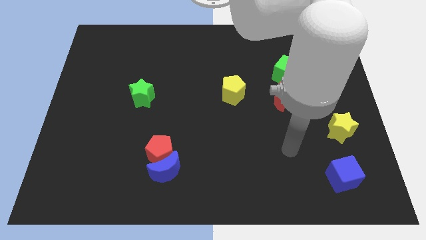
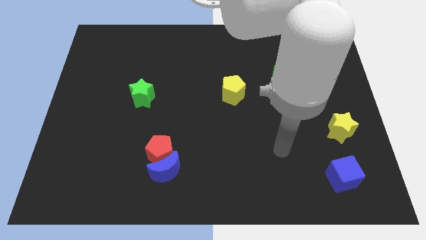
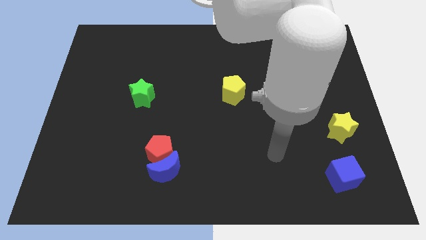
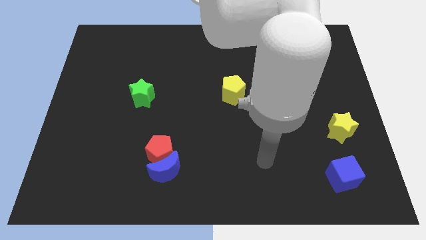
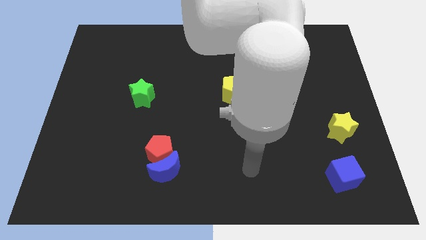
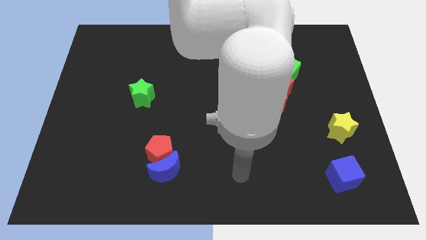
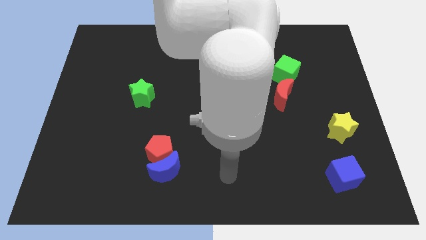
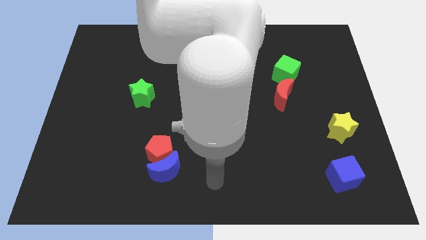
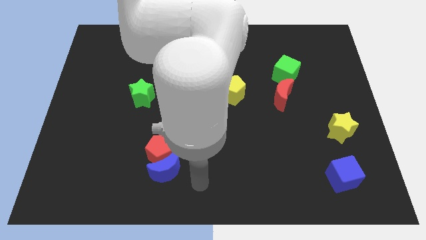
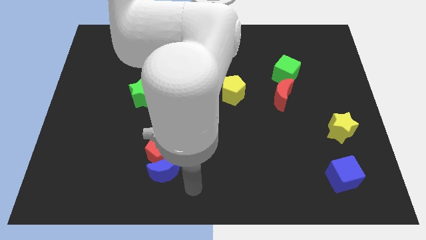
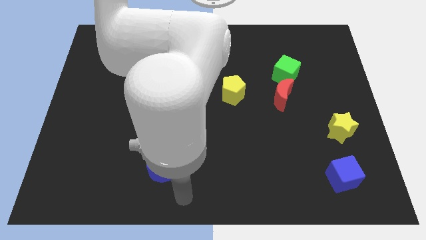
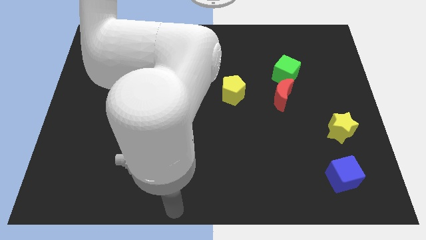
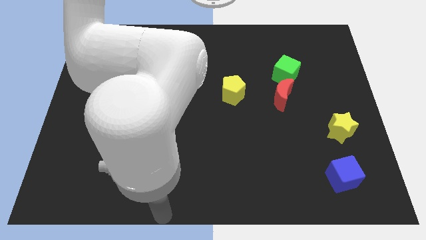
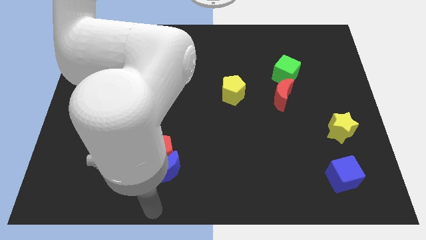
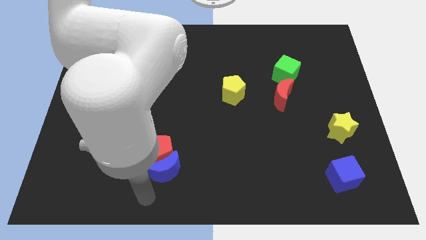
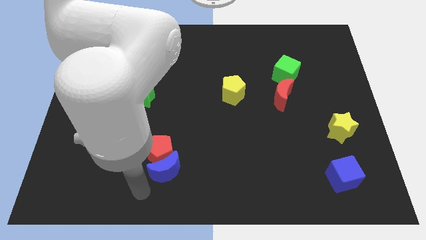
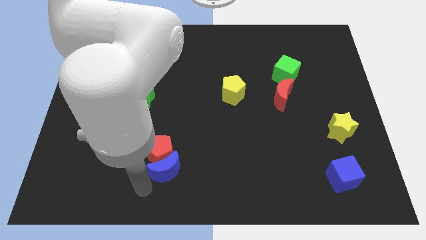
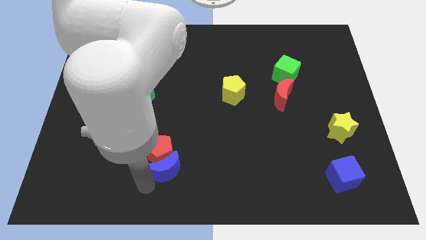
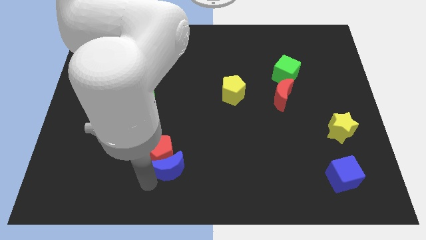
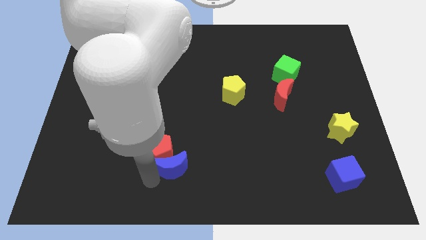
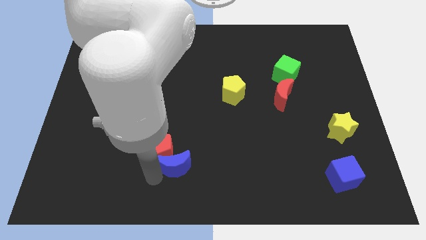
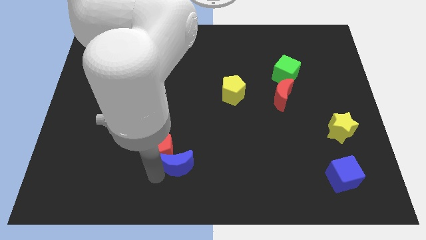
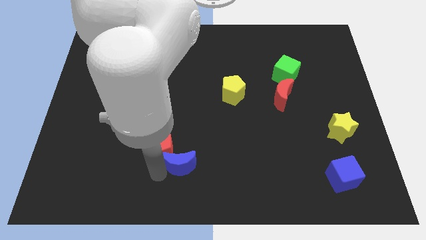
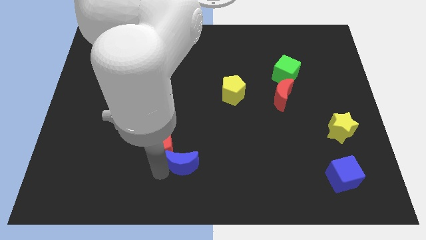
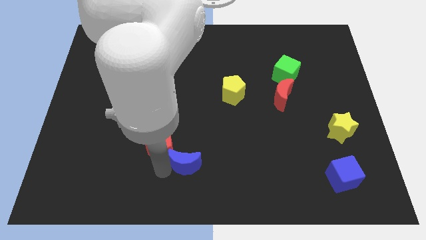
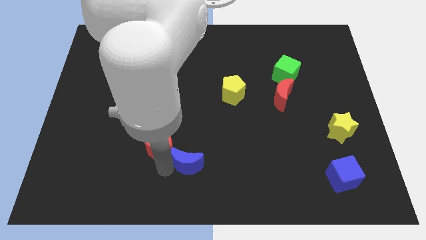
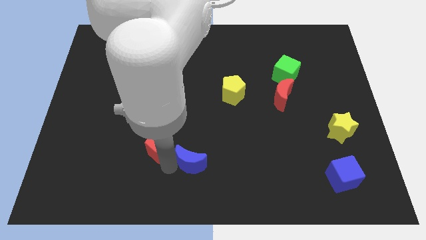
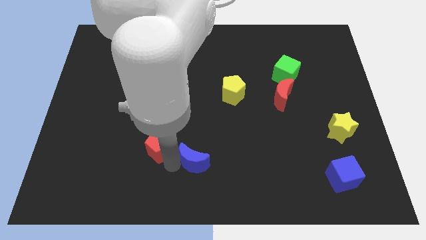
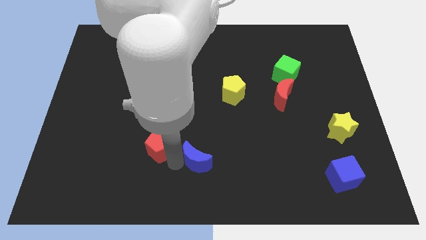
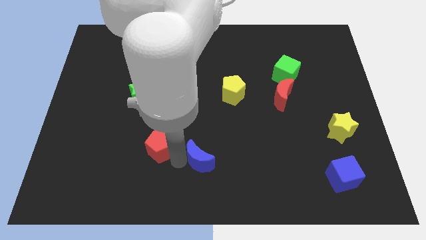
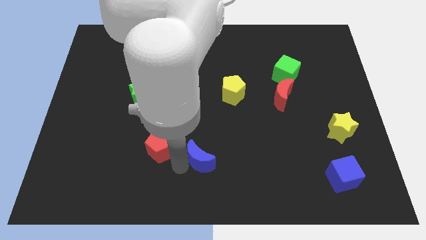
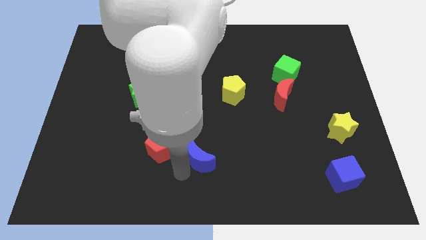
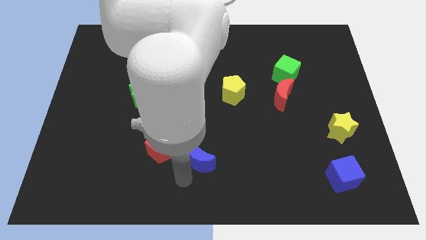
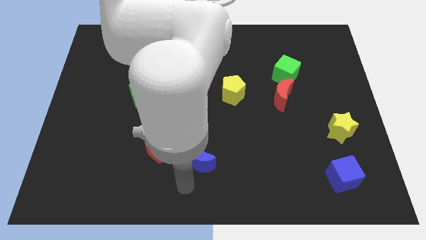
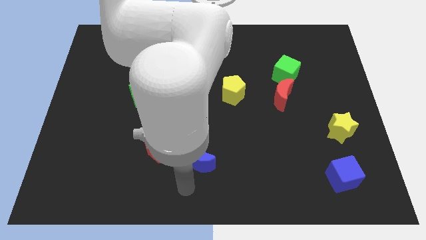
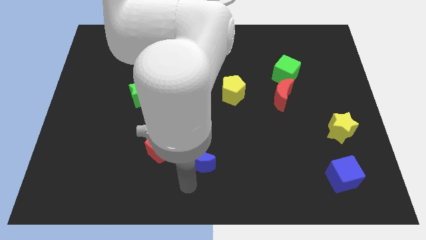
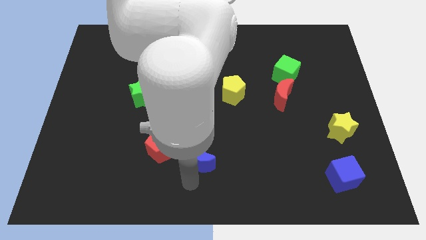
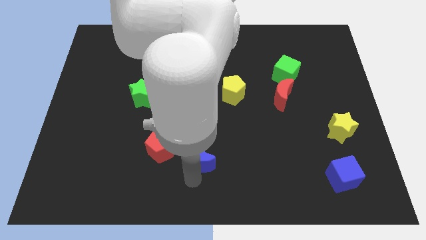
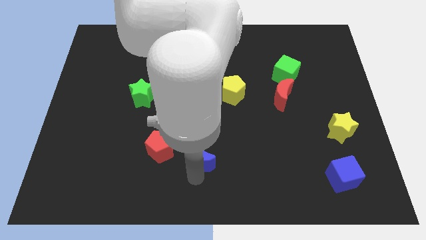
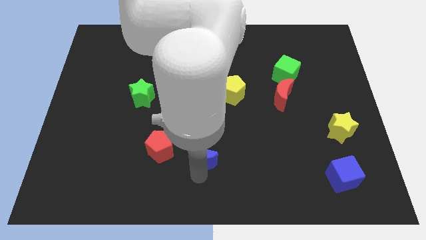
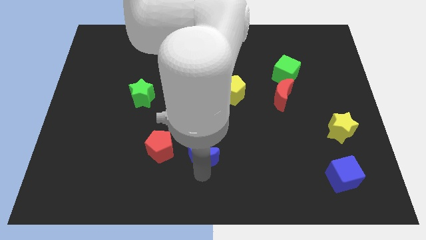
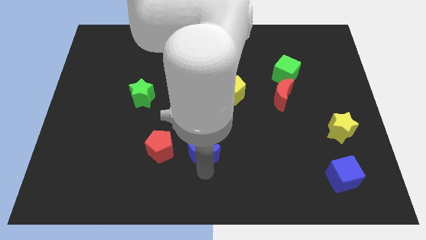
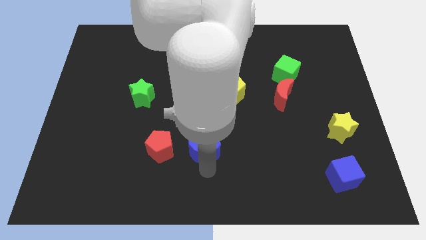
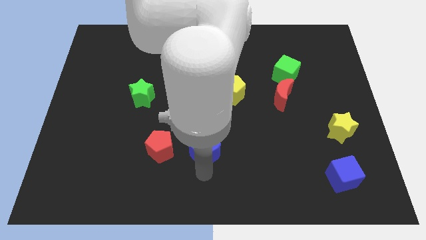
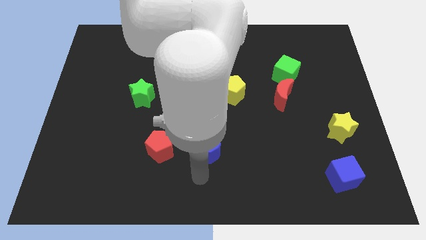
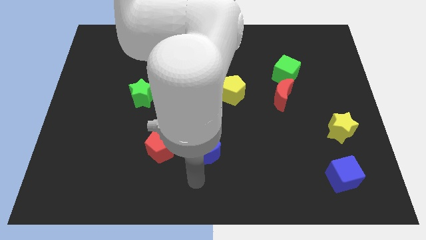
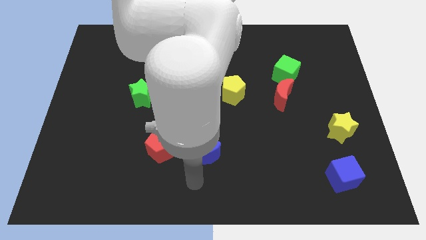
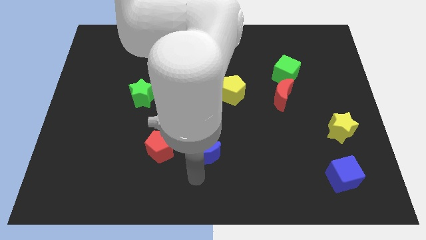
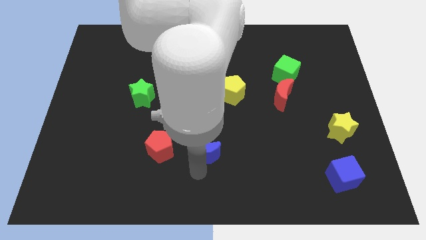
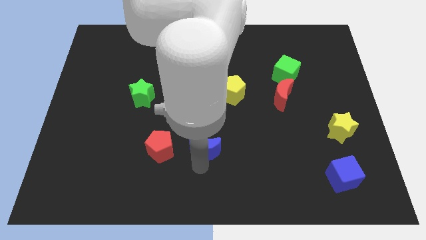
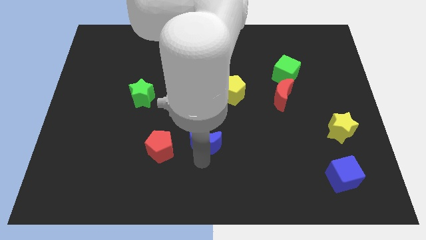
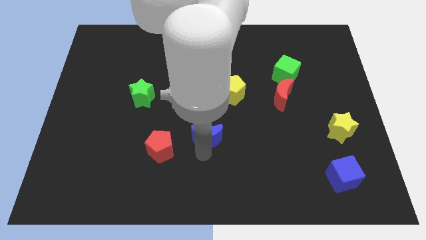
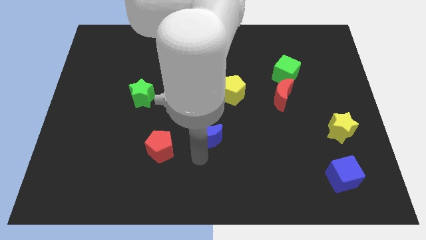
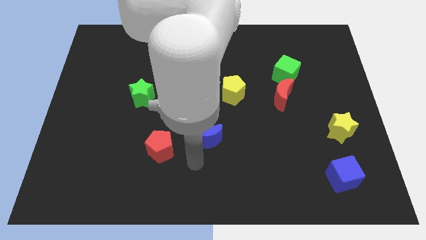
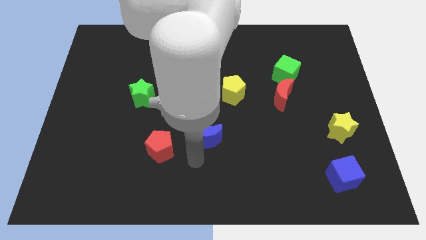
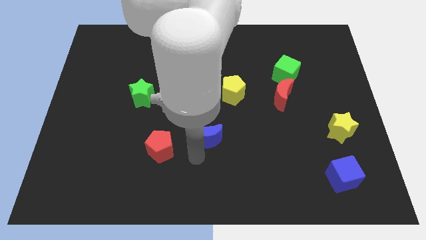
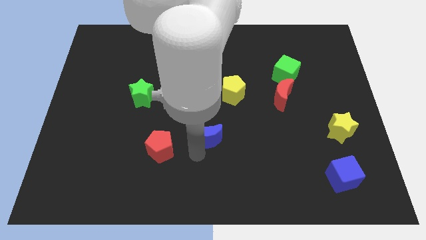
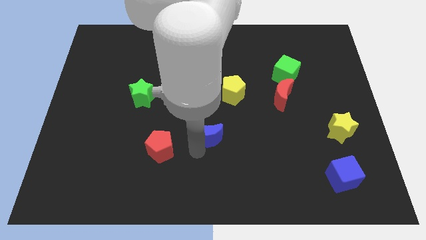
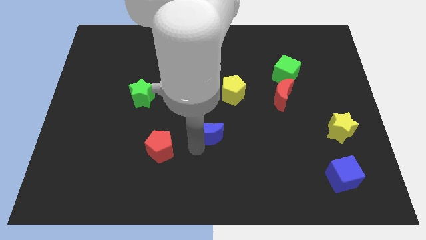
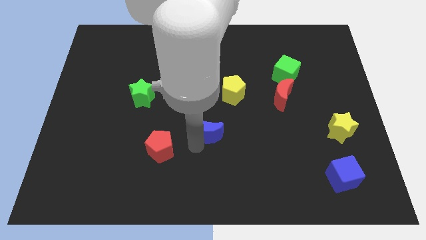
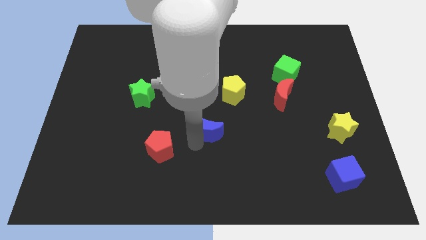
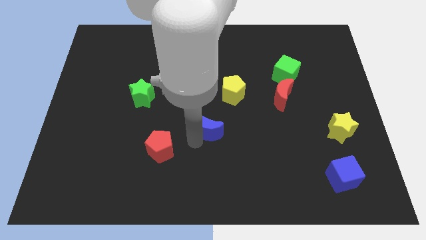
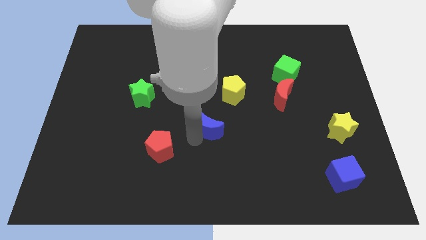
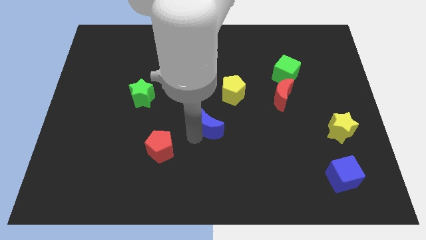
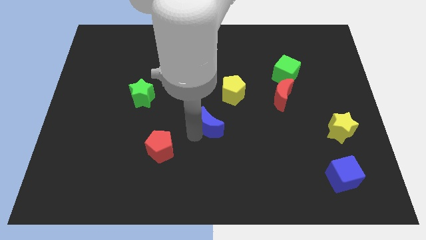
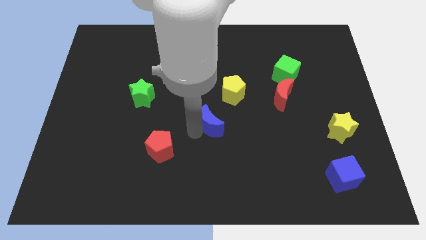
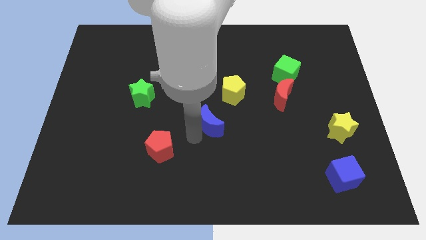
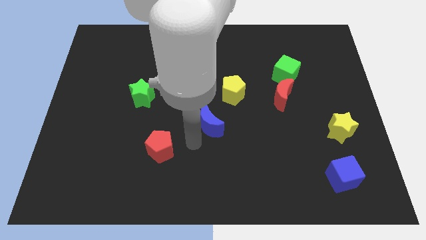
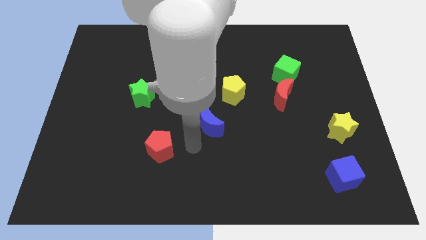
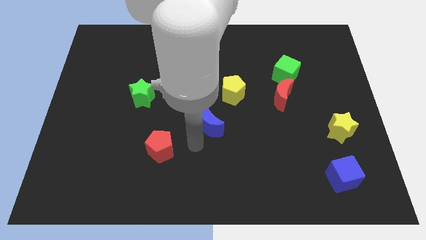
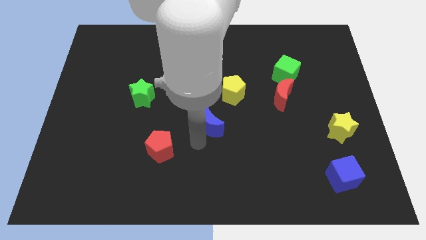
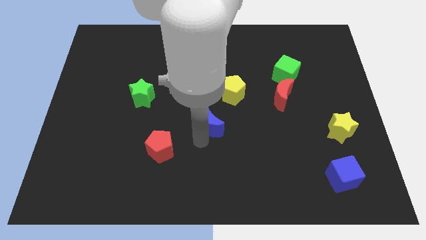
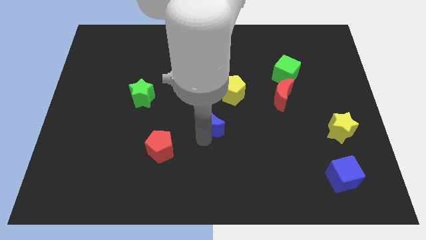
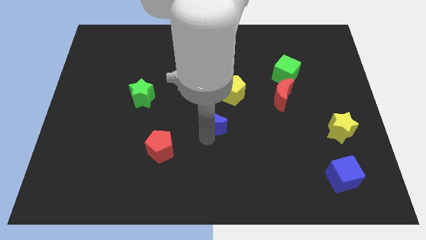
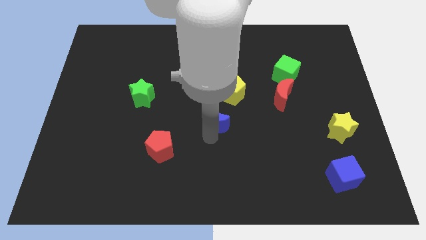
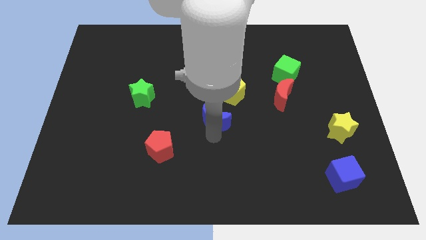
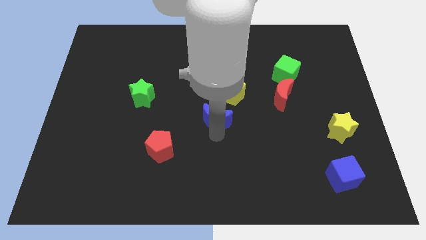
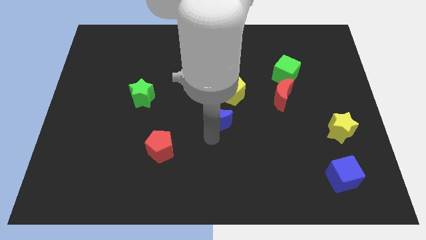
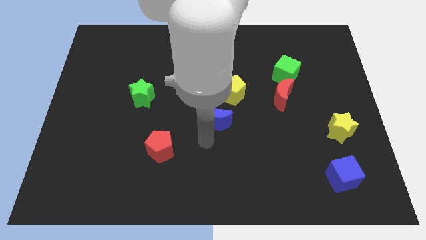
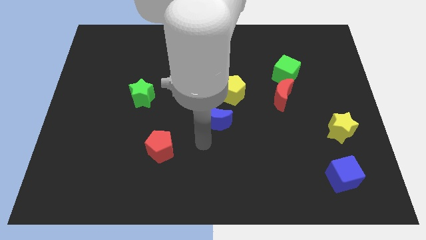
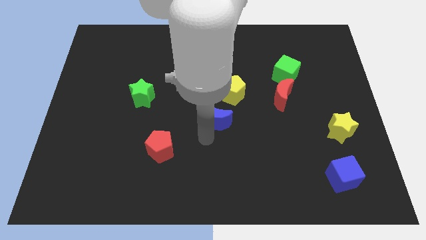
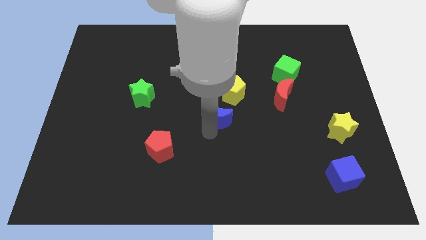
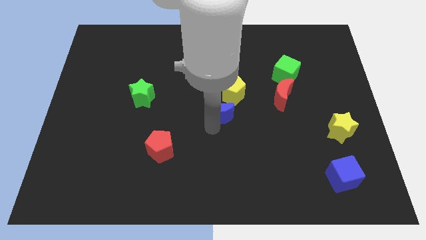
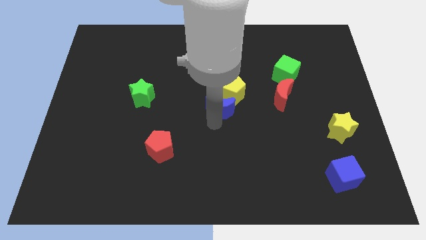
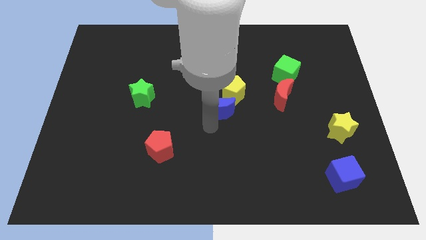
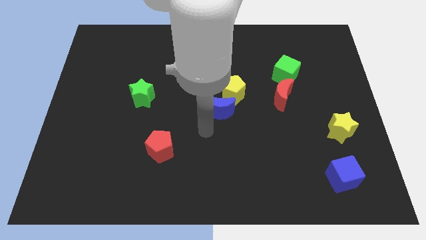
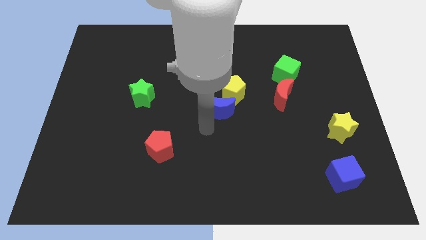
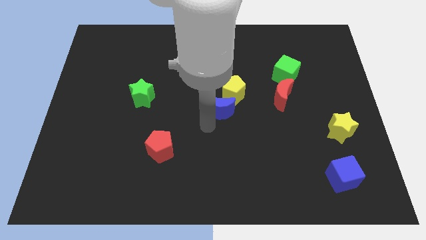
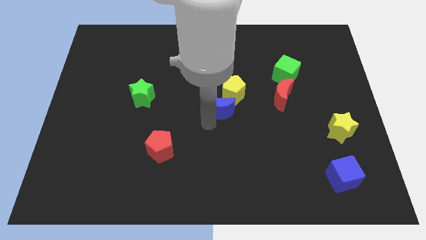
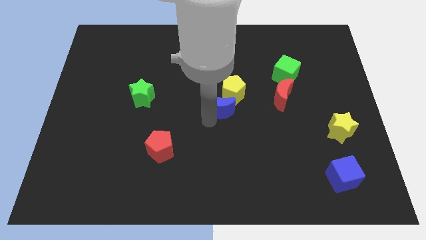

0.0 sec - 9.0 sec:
slide the blue moon close to the yellow pentagon
